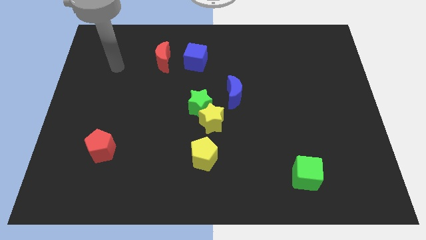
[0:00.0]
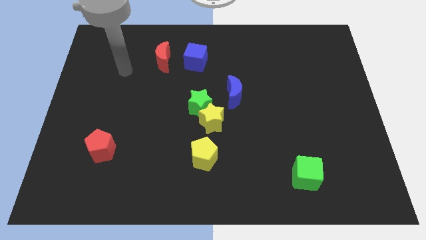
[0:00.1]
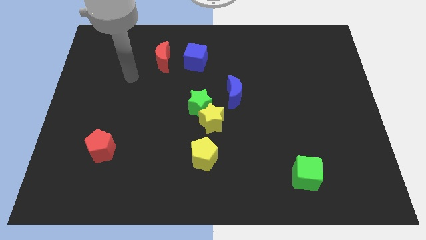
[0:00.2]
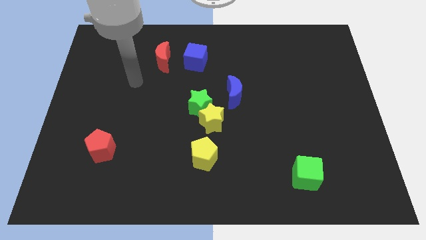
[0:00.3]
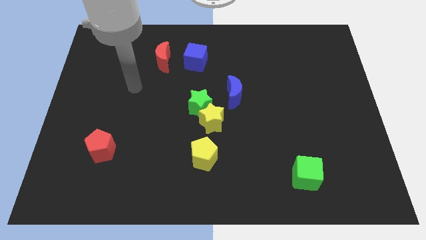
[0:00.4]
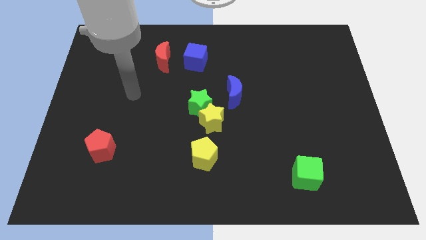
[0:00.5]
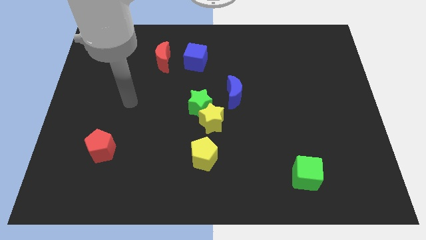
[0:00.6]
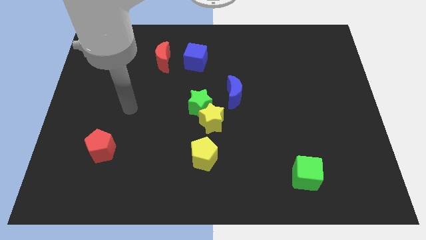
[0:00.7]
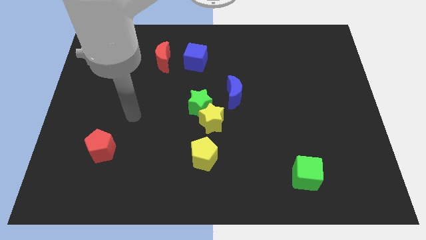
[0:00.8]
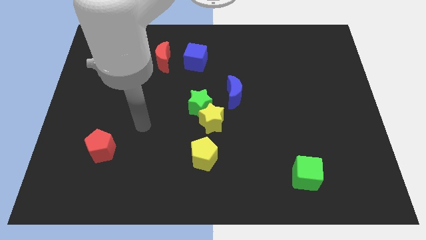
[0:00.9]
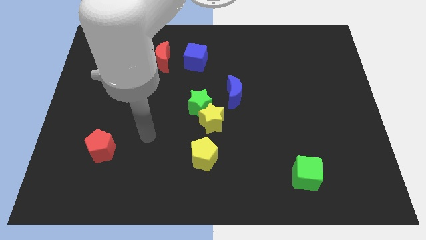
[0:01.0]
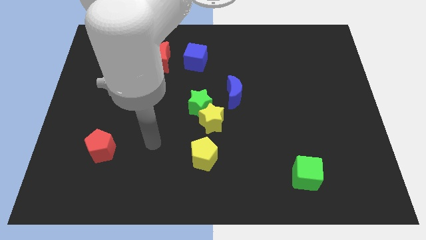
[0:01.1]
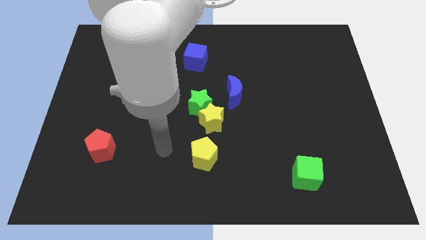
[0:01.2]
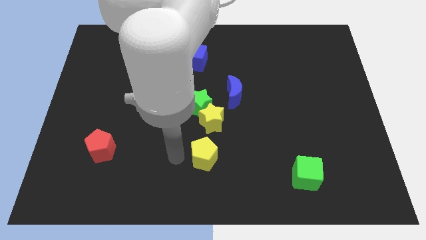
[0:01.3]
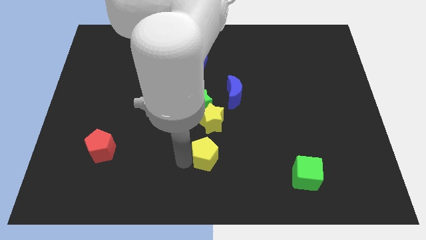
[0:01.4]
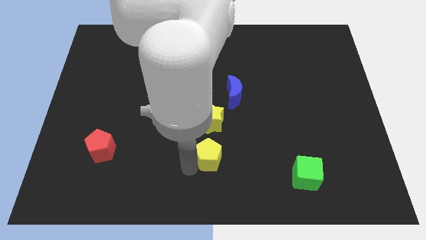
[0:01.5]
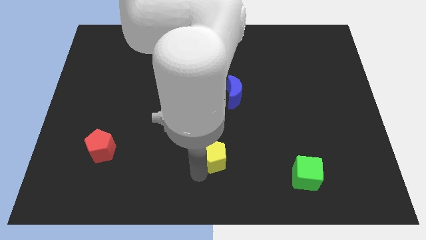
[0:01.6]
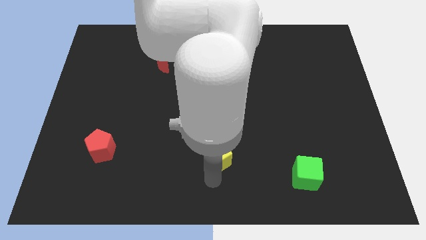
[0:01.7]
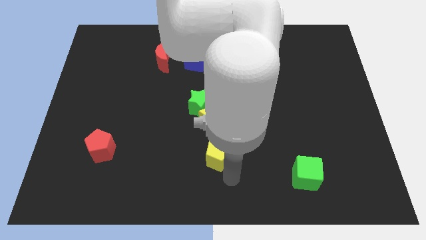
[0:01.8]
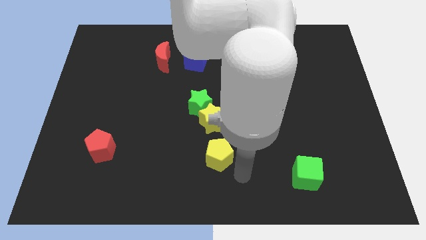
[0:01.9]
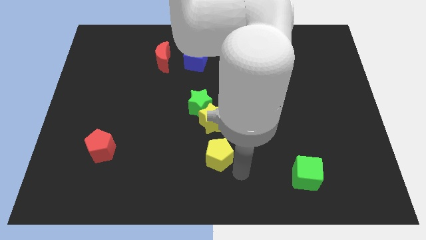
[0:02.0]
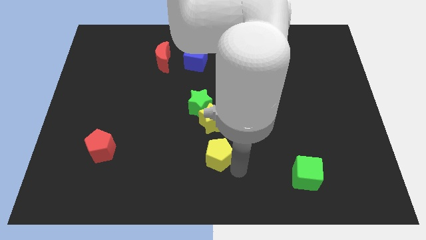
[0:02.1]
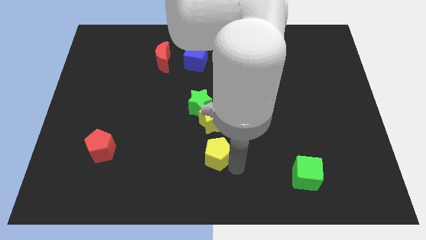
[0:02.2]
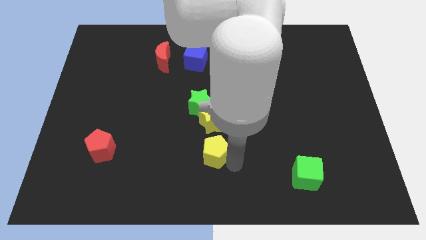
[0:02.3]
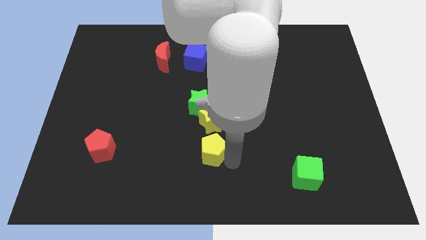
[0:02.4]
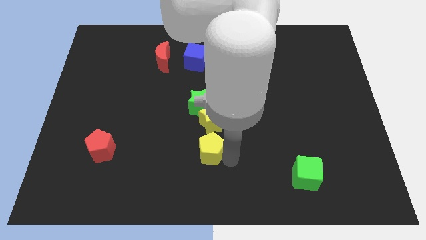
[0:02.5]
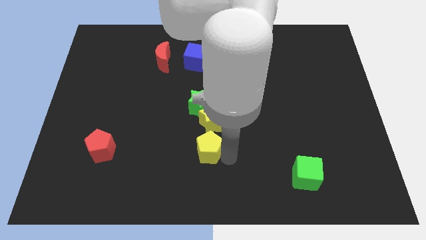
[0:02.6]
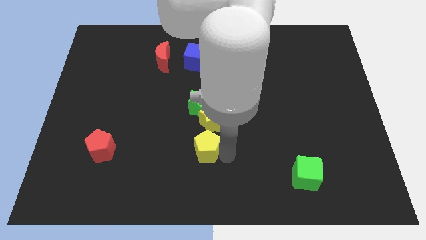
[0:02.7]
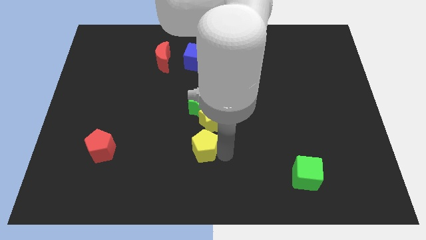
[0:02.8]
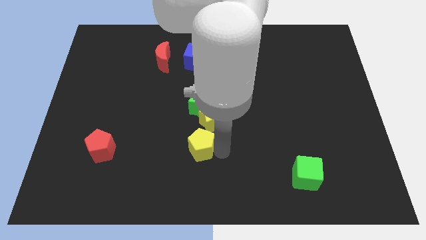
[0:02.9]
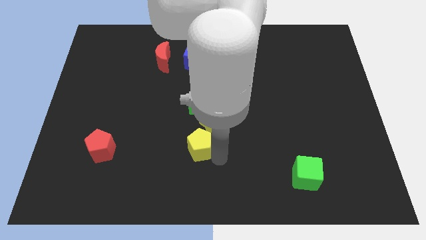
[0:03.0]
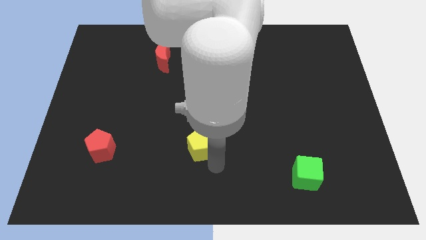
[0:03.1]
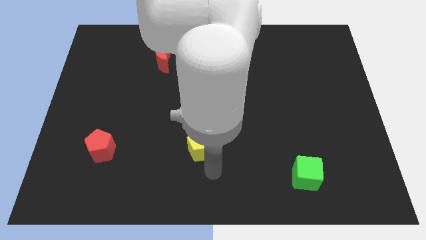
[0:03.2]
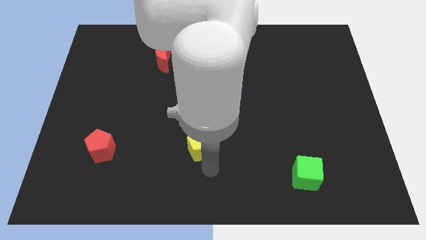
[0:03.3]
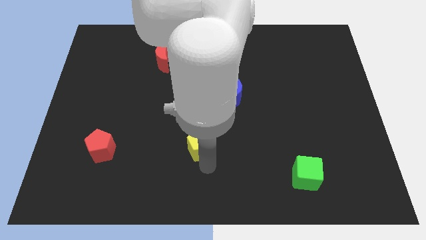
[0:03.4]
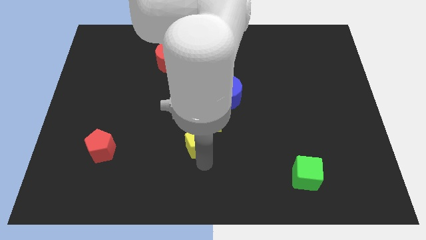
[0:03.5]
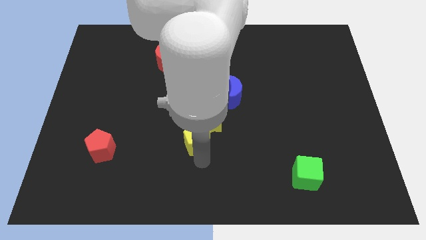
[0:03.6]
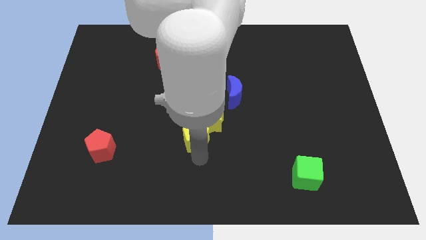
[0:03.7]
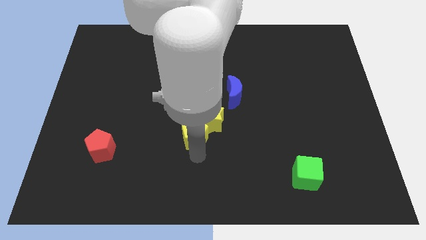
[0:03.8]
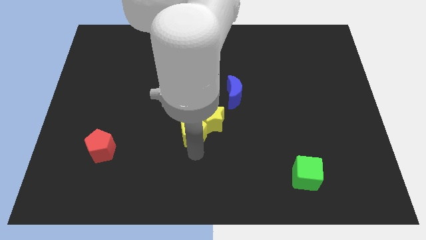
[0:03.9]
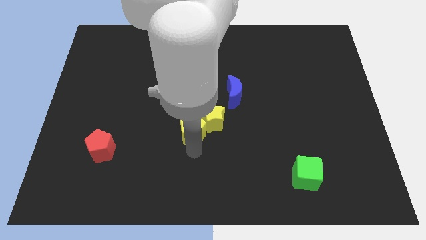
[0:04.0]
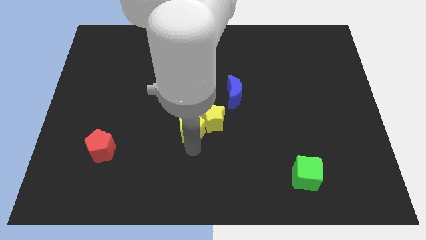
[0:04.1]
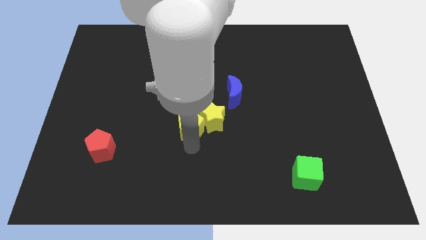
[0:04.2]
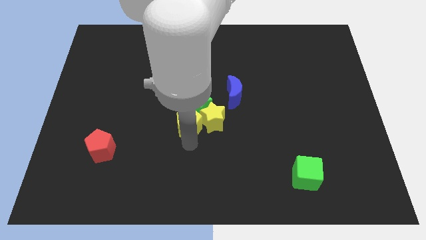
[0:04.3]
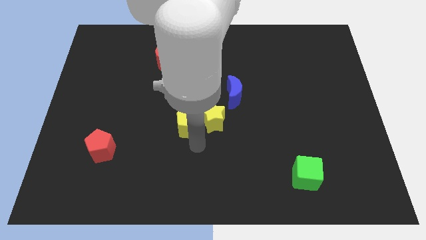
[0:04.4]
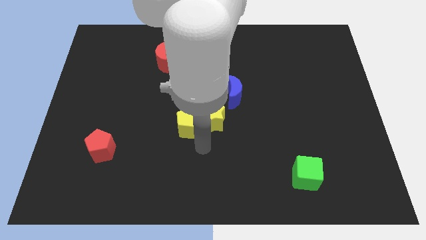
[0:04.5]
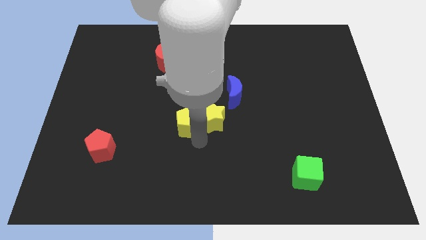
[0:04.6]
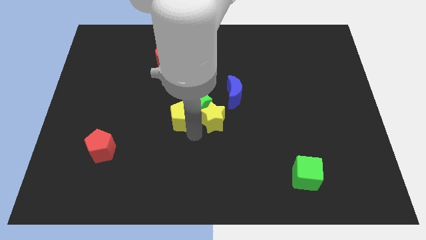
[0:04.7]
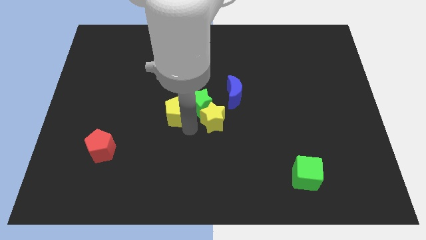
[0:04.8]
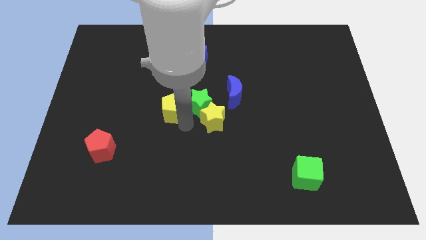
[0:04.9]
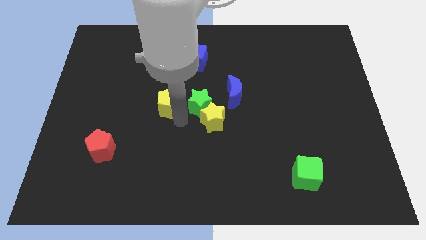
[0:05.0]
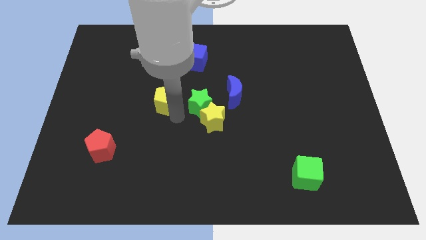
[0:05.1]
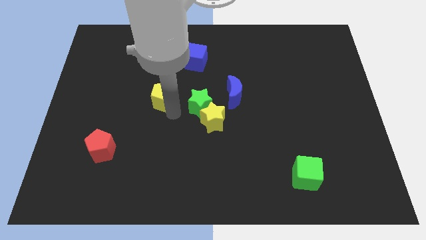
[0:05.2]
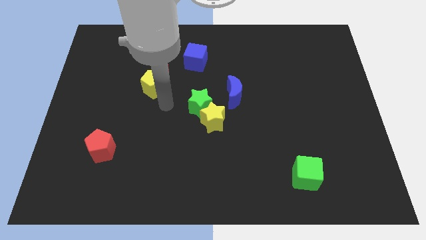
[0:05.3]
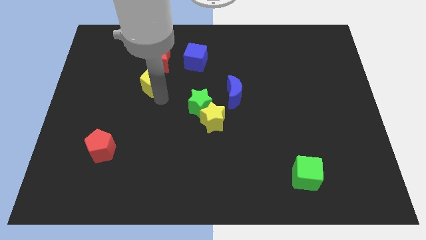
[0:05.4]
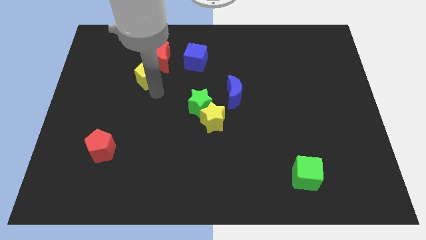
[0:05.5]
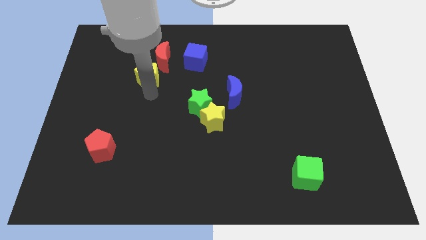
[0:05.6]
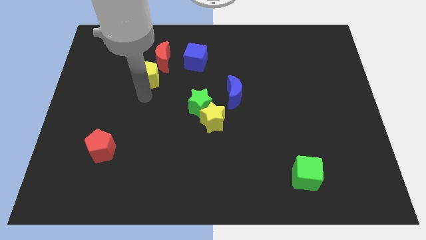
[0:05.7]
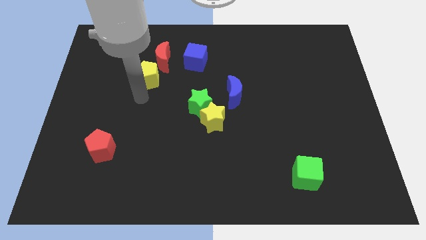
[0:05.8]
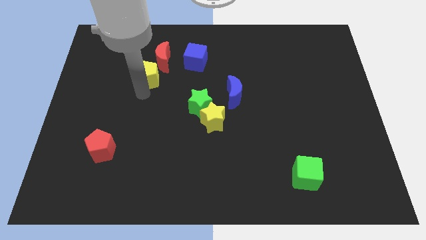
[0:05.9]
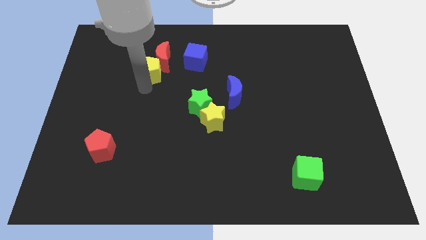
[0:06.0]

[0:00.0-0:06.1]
put the yellow pentagon just left of the blue cube
